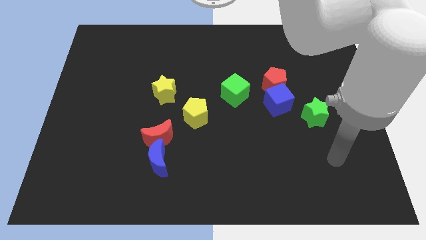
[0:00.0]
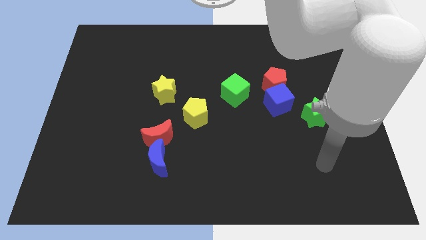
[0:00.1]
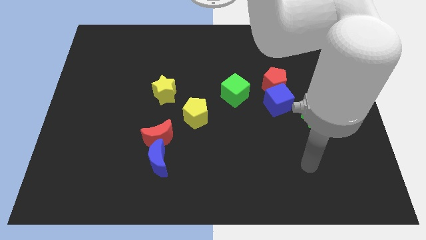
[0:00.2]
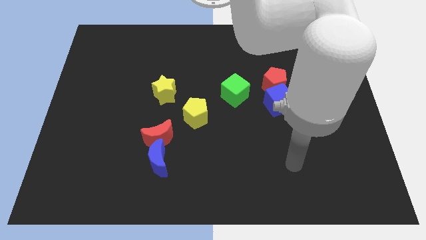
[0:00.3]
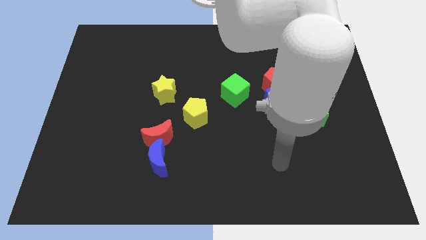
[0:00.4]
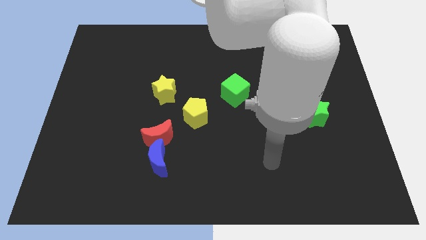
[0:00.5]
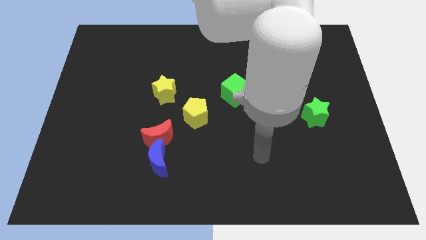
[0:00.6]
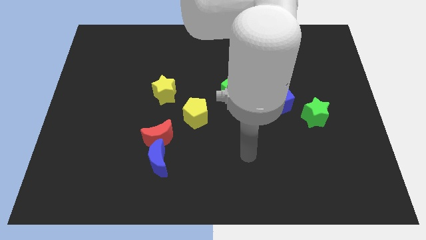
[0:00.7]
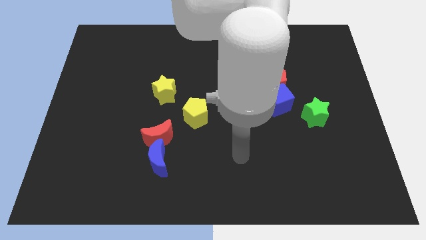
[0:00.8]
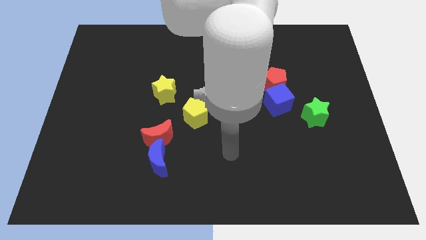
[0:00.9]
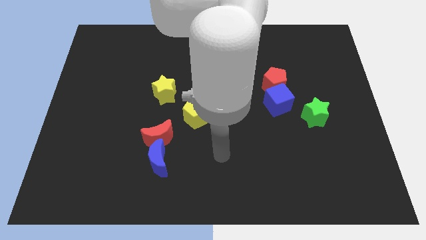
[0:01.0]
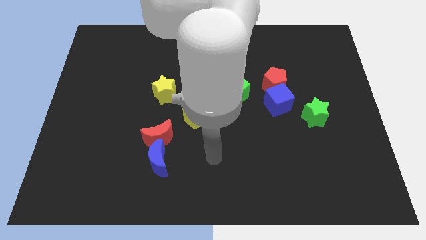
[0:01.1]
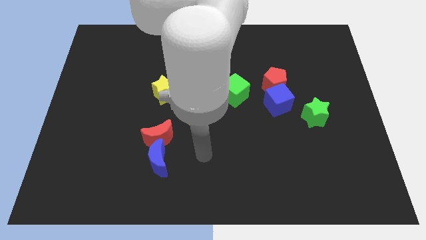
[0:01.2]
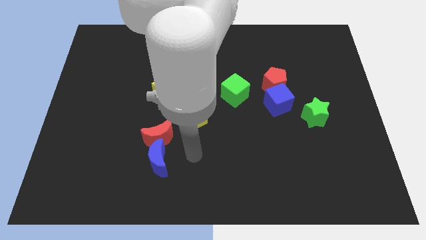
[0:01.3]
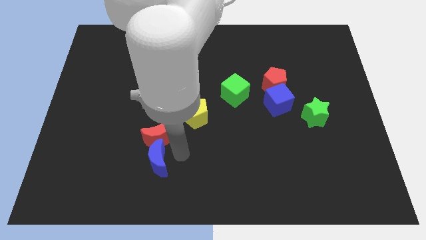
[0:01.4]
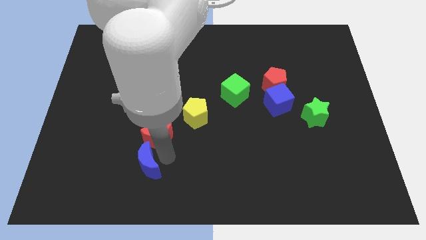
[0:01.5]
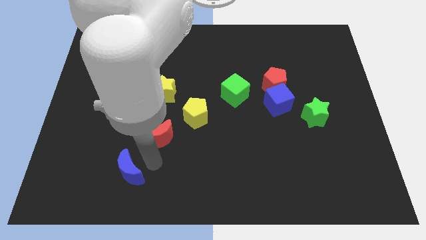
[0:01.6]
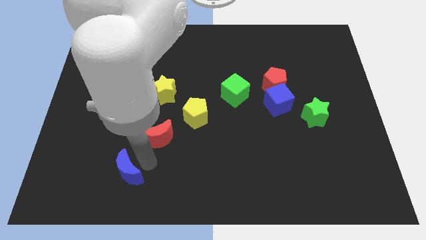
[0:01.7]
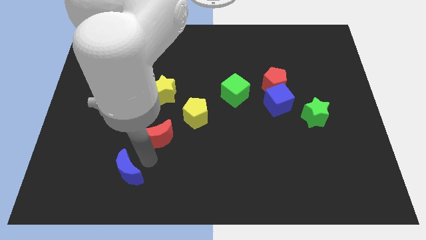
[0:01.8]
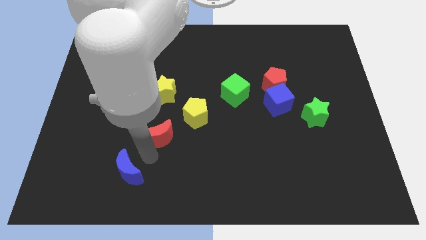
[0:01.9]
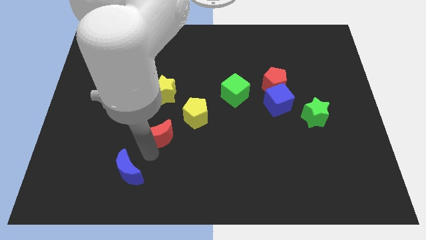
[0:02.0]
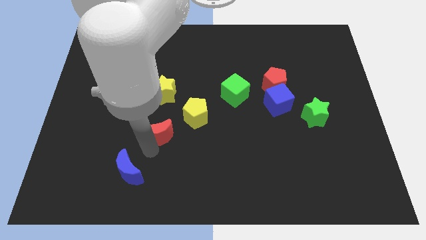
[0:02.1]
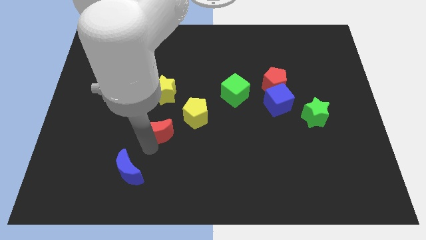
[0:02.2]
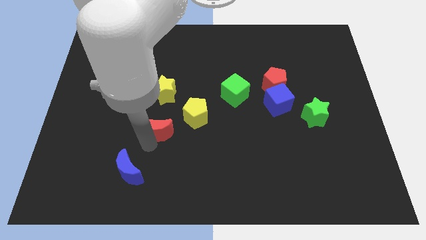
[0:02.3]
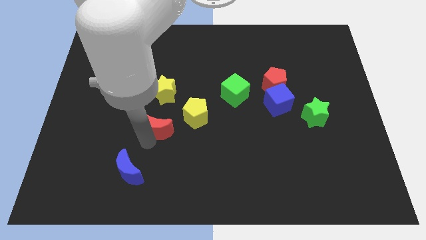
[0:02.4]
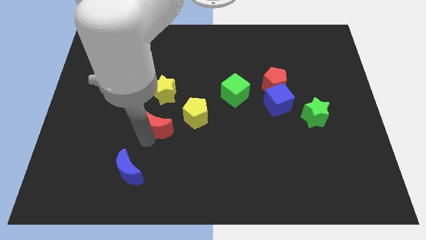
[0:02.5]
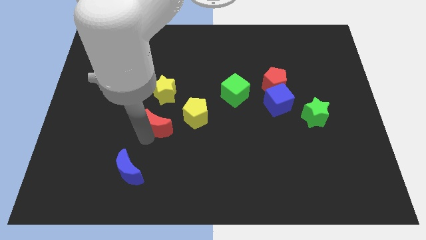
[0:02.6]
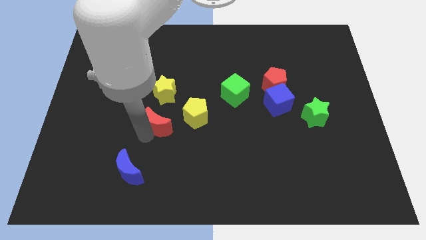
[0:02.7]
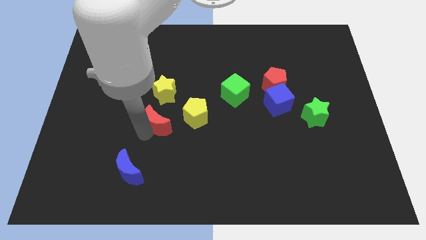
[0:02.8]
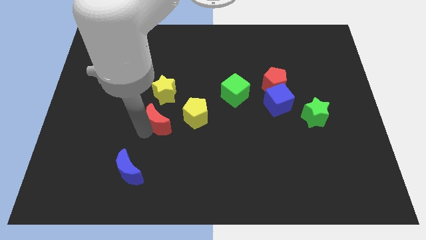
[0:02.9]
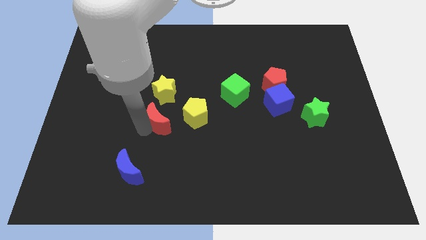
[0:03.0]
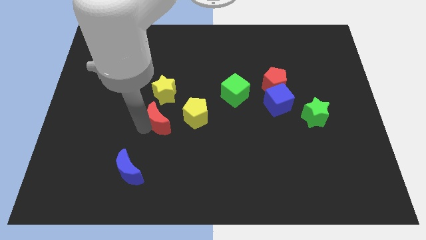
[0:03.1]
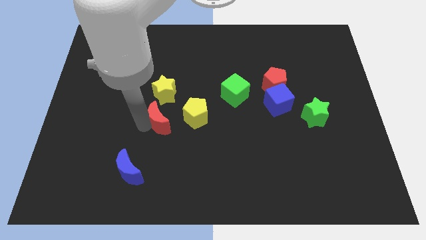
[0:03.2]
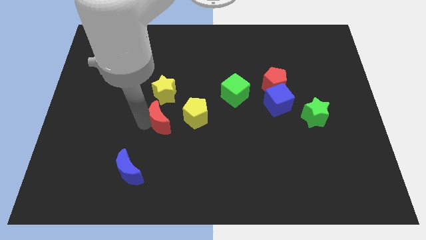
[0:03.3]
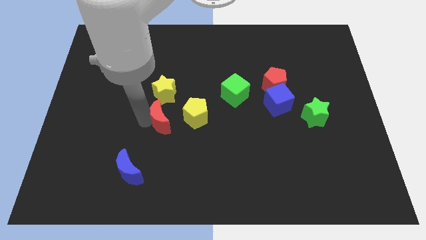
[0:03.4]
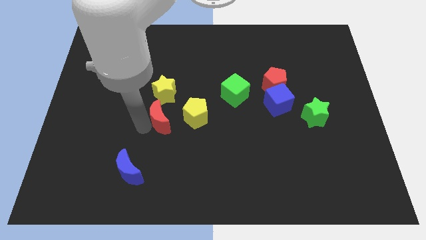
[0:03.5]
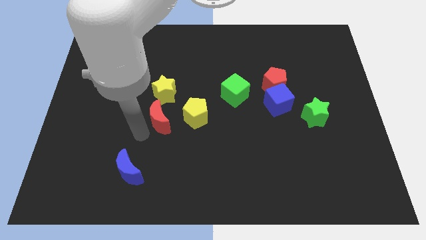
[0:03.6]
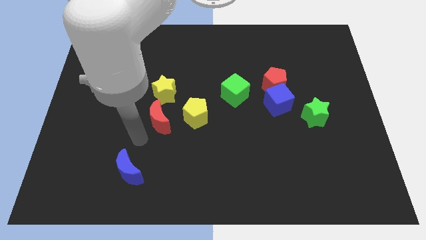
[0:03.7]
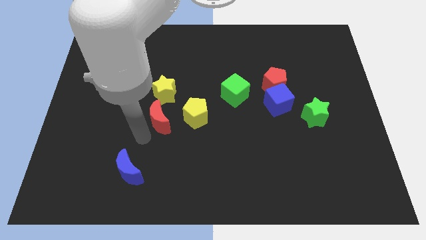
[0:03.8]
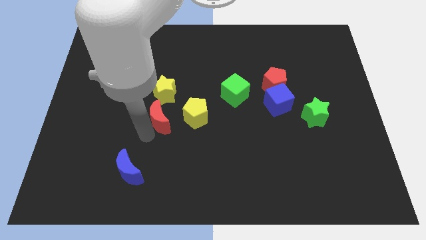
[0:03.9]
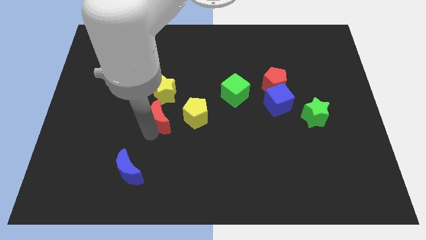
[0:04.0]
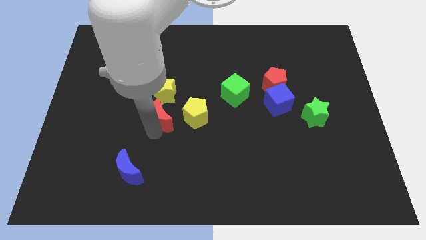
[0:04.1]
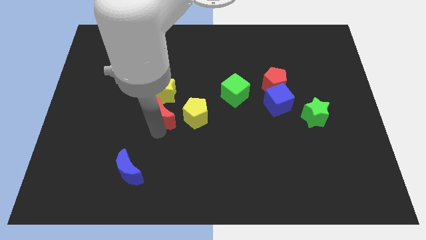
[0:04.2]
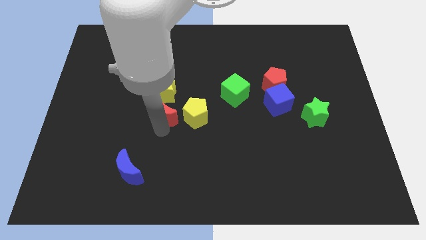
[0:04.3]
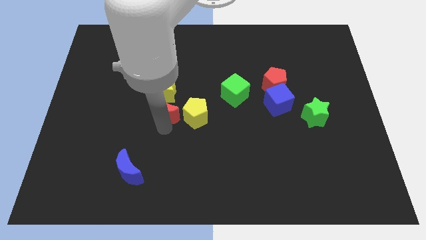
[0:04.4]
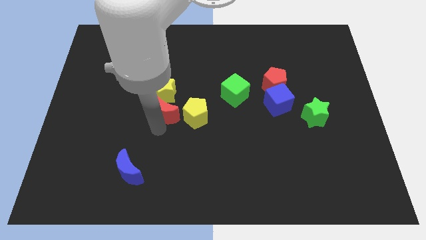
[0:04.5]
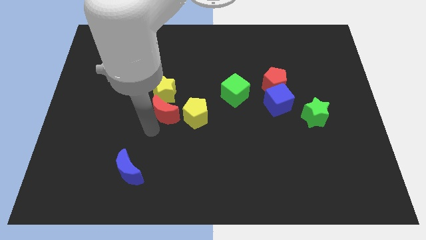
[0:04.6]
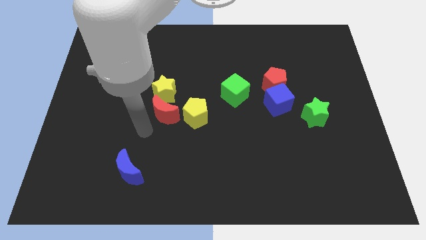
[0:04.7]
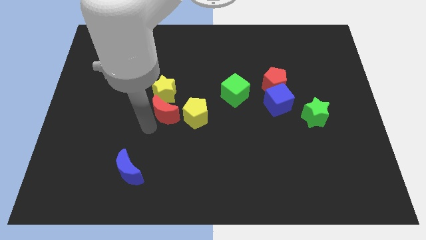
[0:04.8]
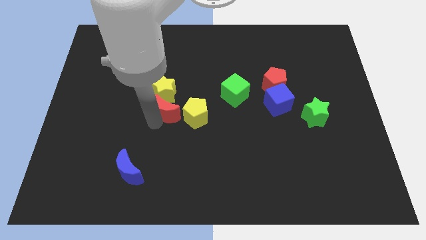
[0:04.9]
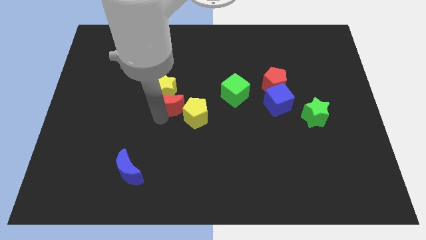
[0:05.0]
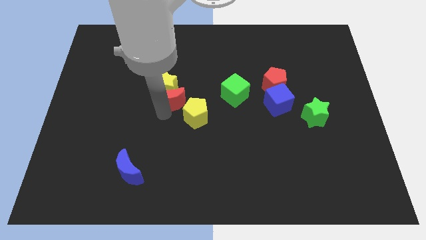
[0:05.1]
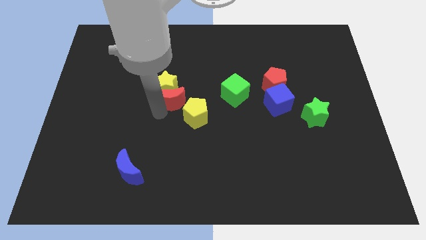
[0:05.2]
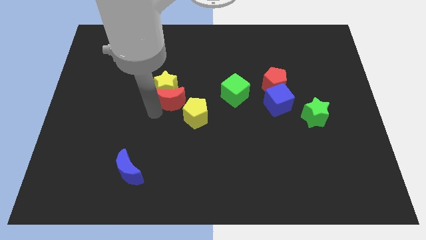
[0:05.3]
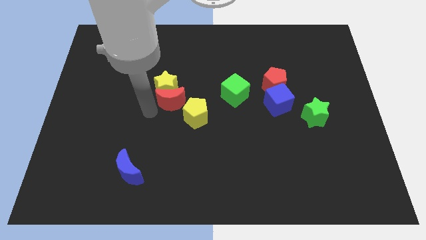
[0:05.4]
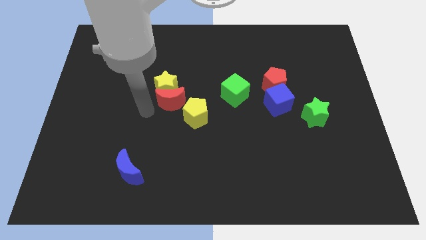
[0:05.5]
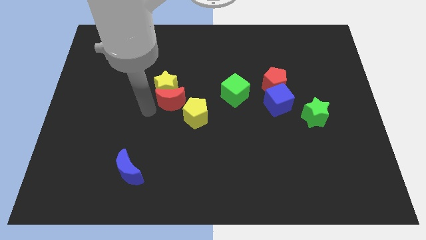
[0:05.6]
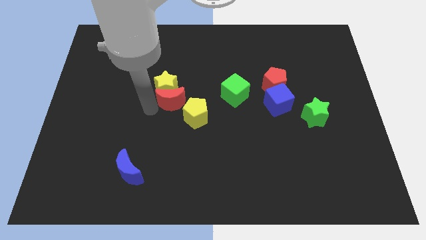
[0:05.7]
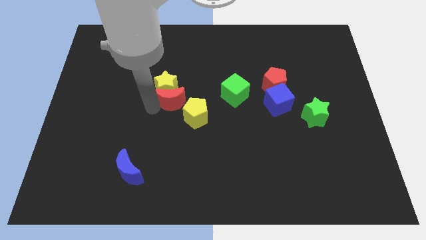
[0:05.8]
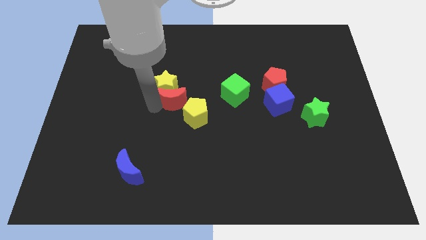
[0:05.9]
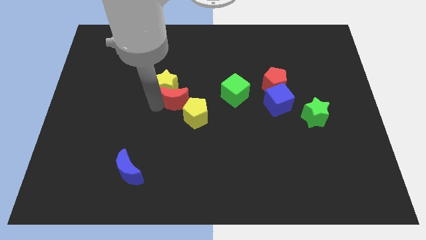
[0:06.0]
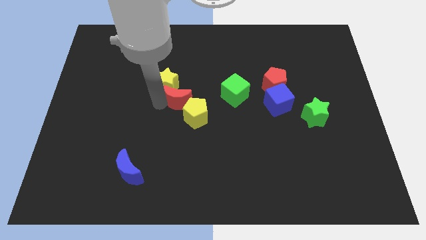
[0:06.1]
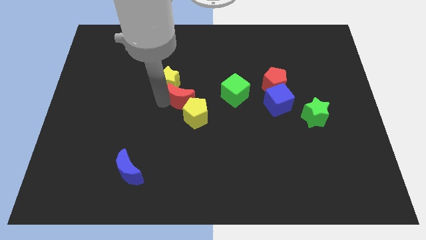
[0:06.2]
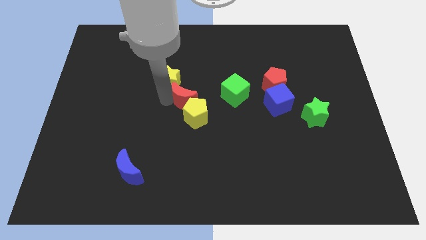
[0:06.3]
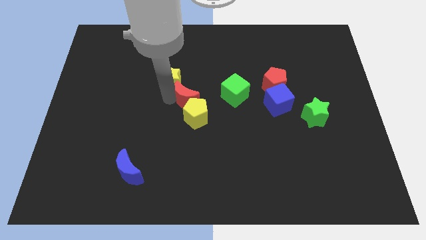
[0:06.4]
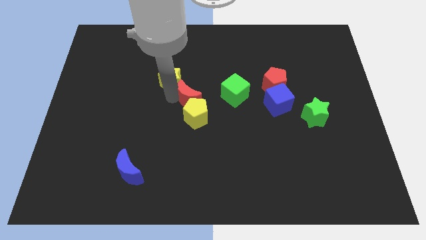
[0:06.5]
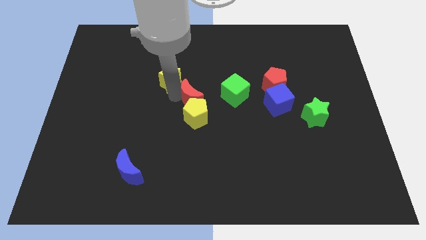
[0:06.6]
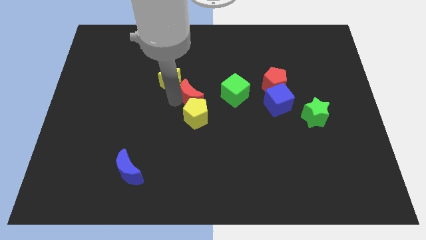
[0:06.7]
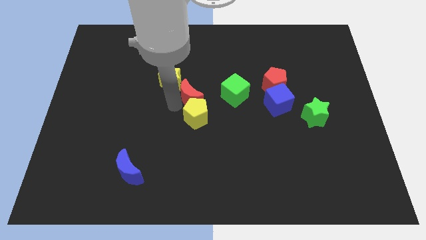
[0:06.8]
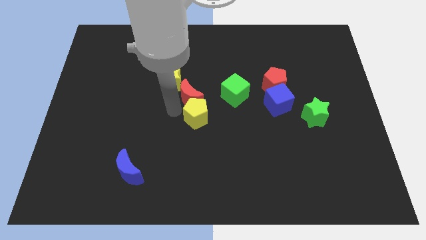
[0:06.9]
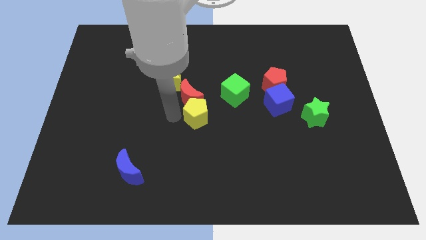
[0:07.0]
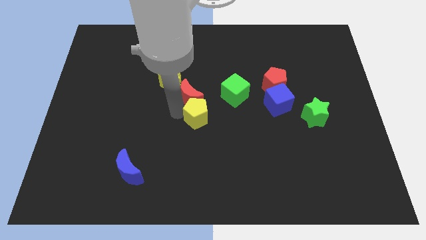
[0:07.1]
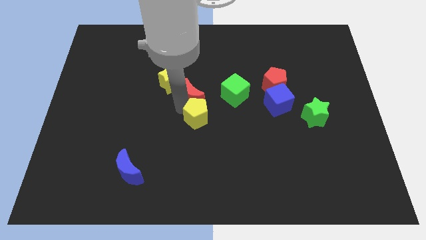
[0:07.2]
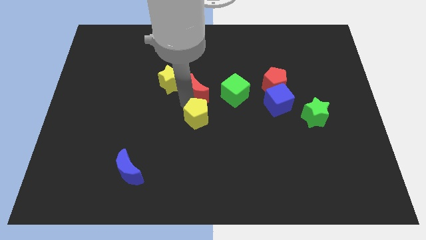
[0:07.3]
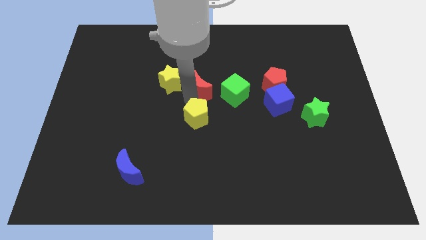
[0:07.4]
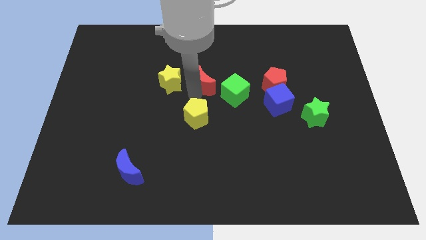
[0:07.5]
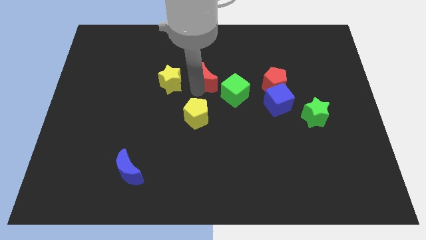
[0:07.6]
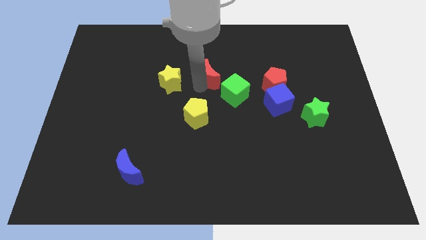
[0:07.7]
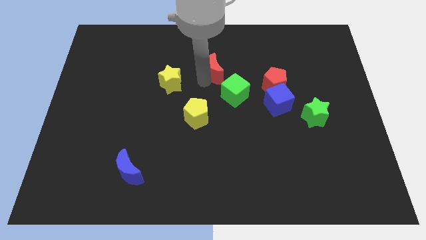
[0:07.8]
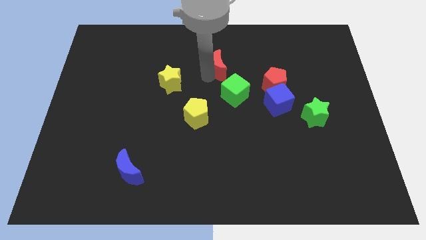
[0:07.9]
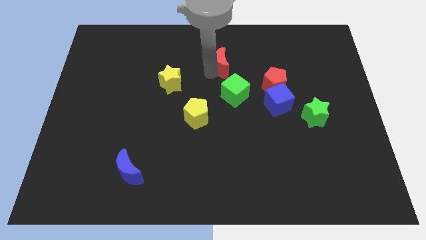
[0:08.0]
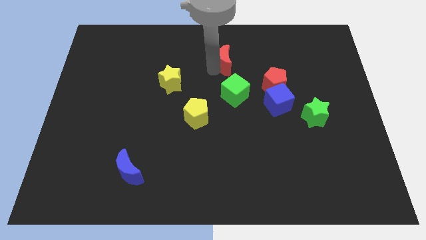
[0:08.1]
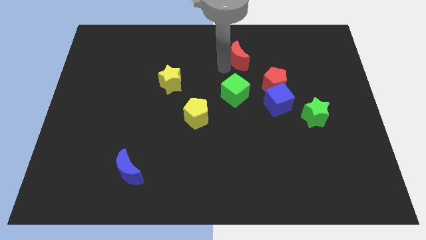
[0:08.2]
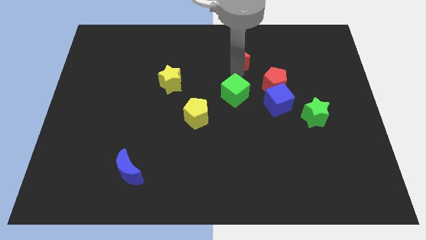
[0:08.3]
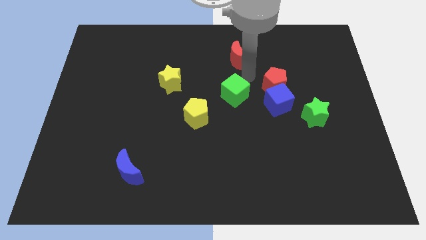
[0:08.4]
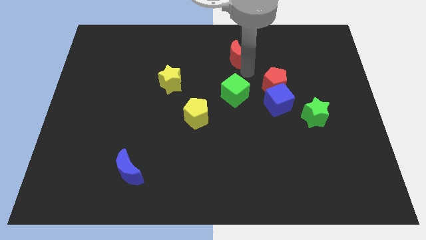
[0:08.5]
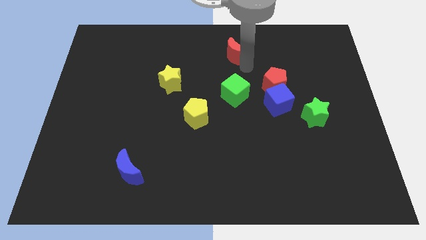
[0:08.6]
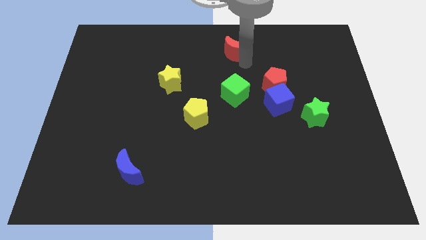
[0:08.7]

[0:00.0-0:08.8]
push the red moon to the top side
